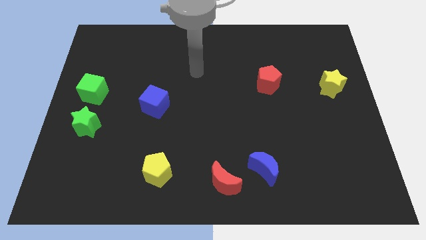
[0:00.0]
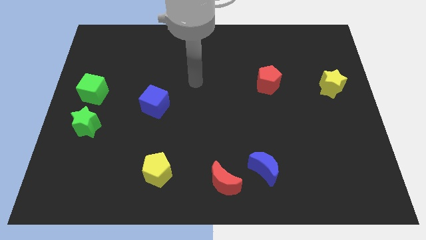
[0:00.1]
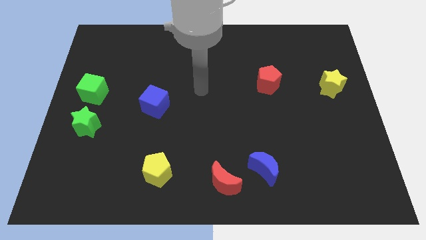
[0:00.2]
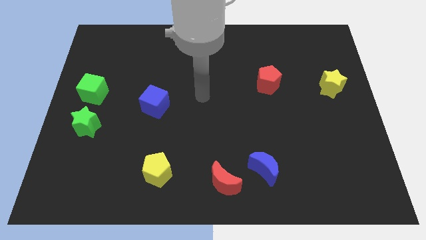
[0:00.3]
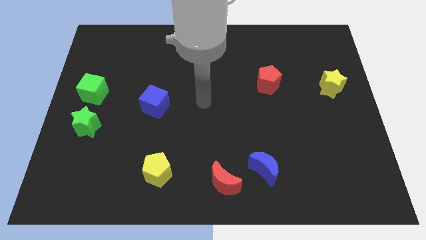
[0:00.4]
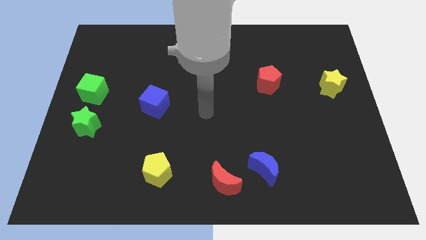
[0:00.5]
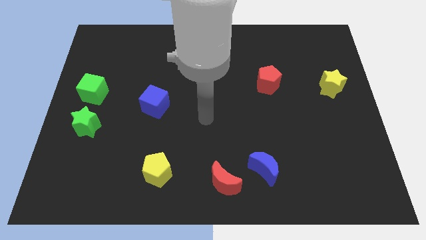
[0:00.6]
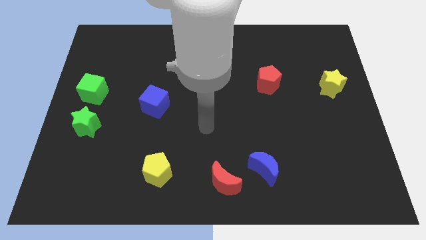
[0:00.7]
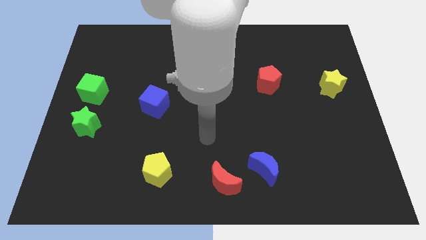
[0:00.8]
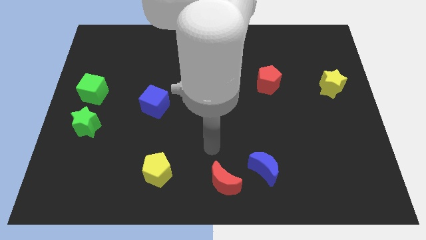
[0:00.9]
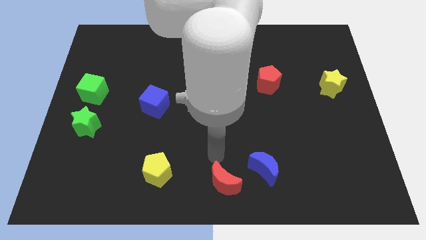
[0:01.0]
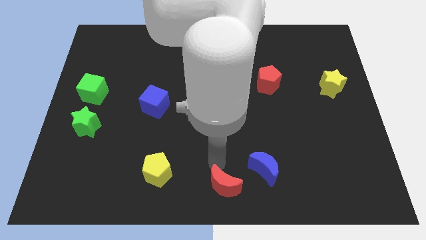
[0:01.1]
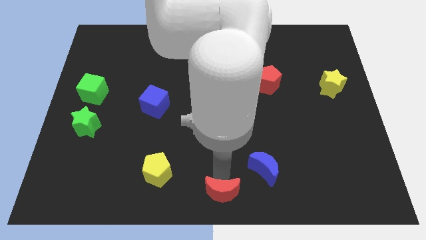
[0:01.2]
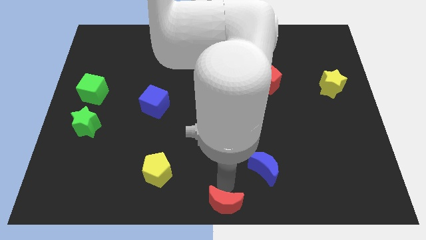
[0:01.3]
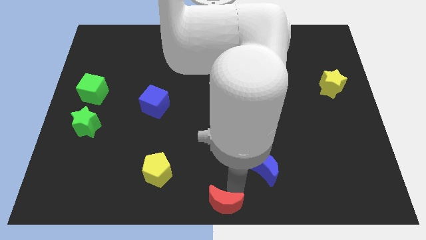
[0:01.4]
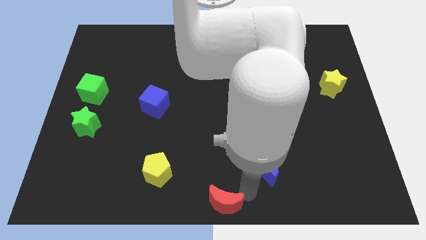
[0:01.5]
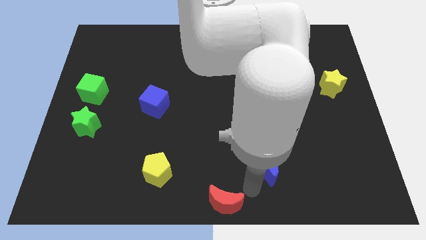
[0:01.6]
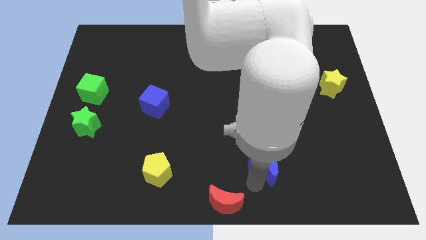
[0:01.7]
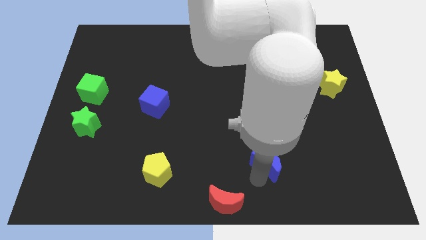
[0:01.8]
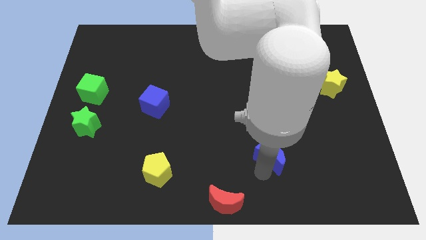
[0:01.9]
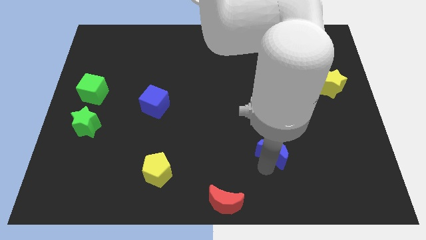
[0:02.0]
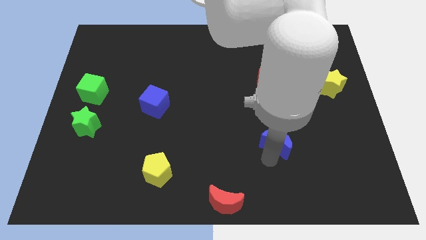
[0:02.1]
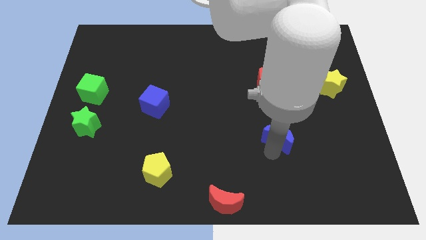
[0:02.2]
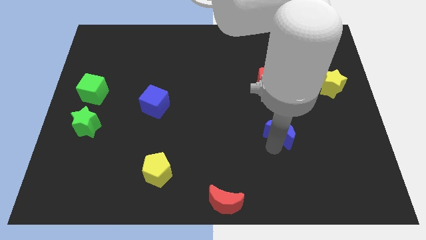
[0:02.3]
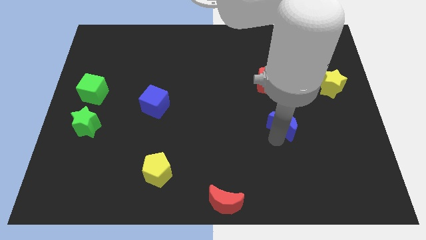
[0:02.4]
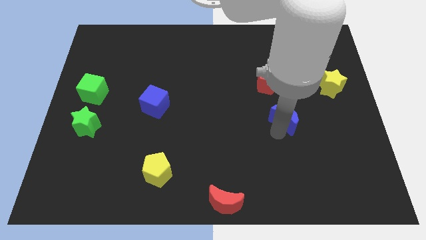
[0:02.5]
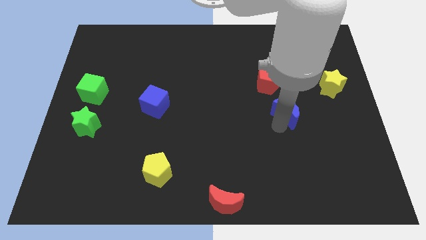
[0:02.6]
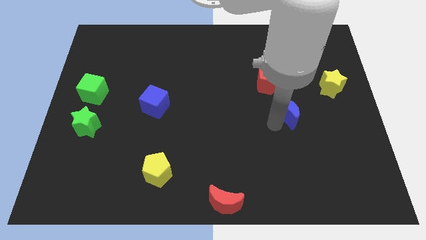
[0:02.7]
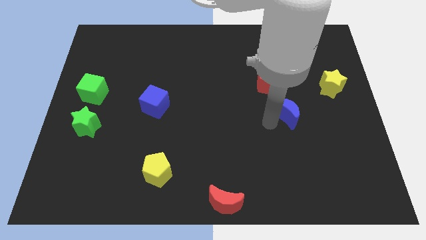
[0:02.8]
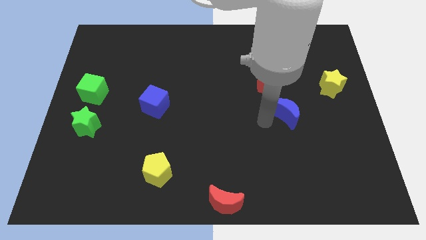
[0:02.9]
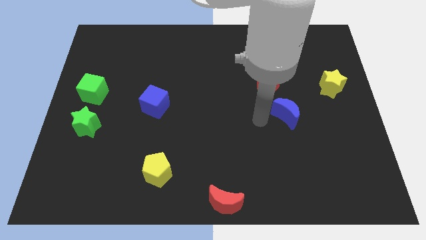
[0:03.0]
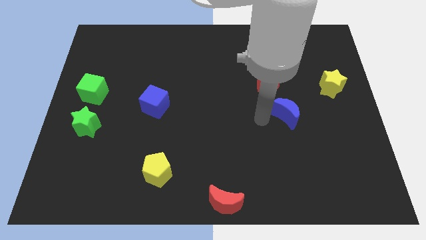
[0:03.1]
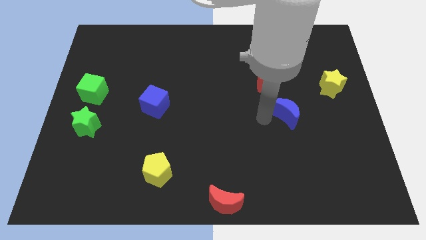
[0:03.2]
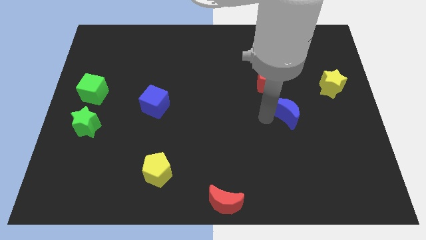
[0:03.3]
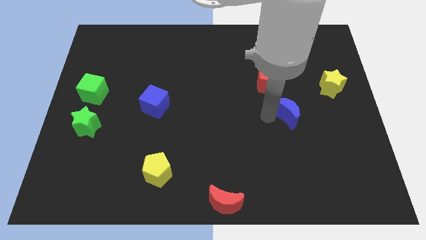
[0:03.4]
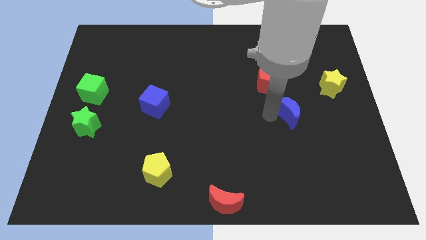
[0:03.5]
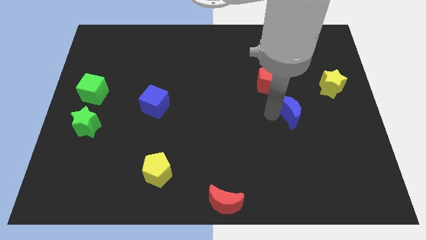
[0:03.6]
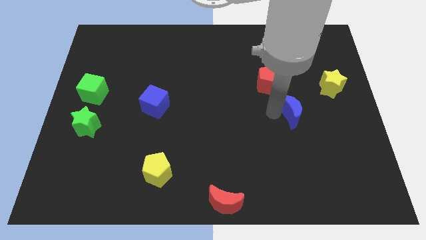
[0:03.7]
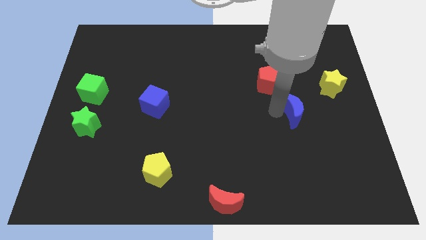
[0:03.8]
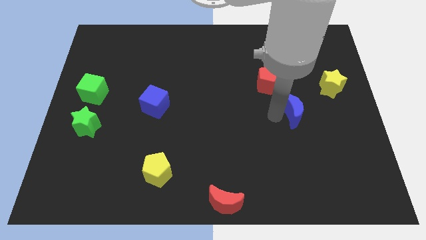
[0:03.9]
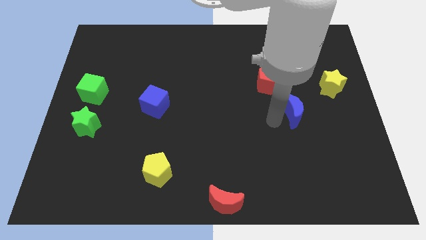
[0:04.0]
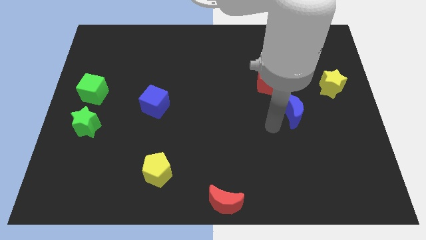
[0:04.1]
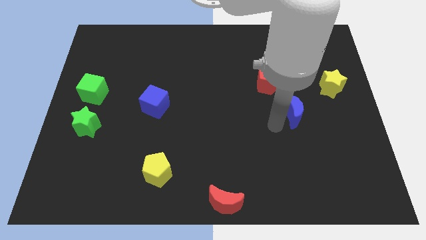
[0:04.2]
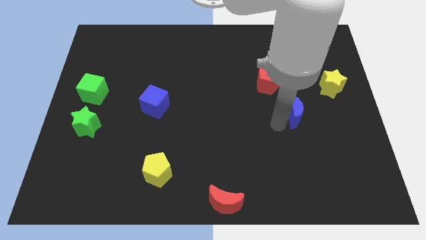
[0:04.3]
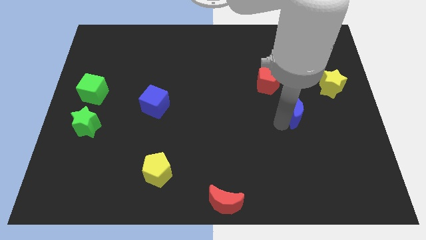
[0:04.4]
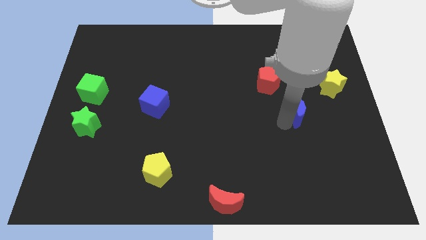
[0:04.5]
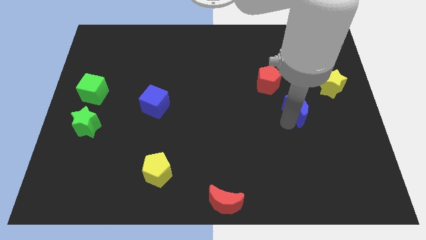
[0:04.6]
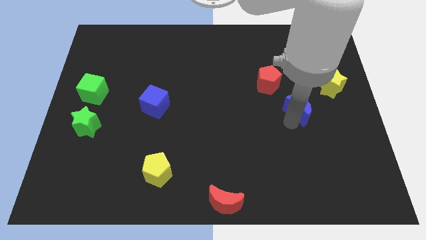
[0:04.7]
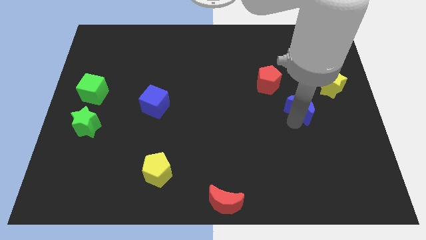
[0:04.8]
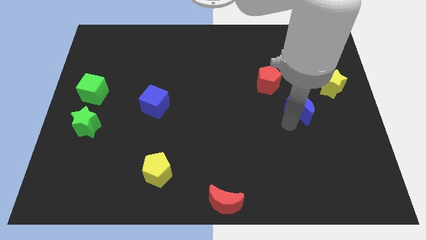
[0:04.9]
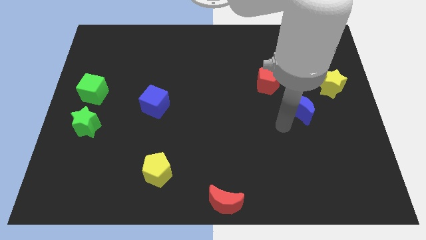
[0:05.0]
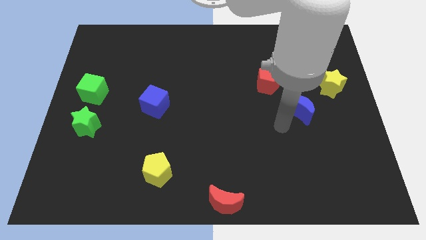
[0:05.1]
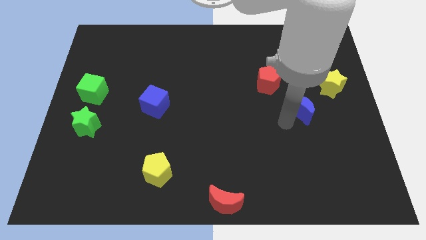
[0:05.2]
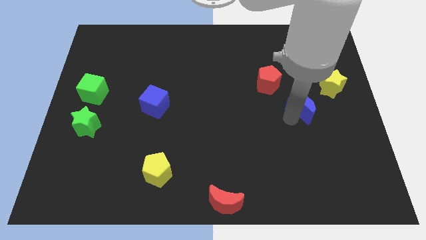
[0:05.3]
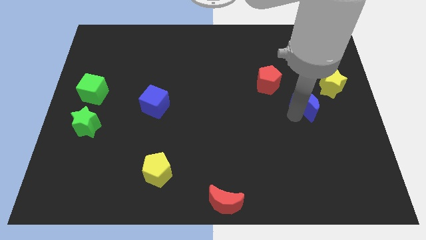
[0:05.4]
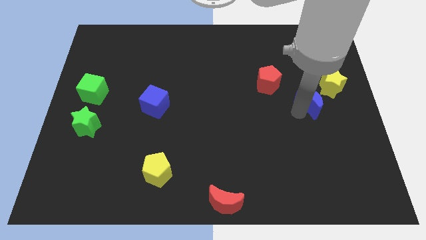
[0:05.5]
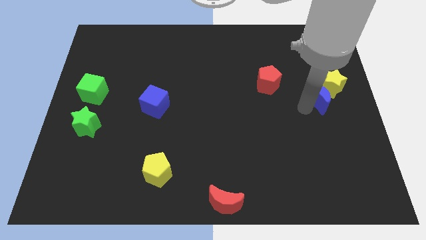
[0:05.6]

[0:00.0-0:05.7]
slide the blue moon towards the yellow star

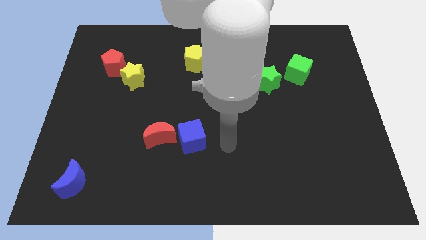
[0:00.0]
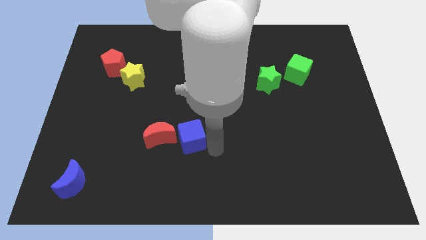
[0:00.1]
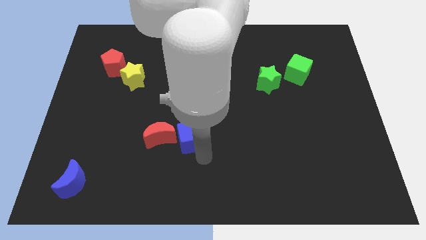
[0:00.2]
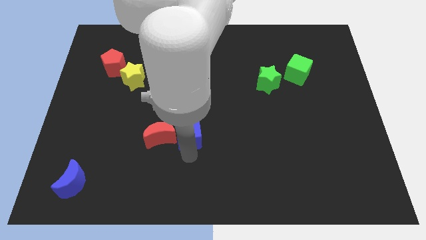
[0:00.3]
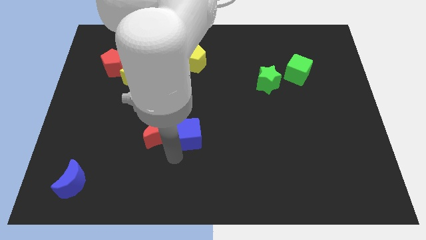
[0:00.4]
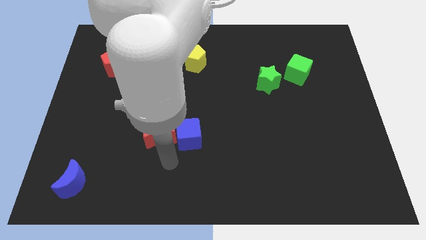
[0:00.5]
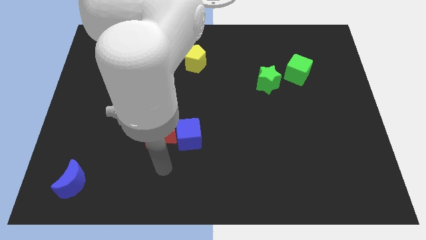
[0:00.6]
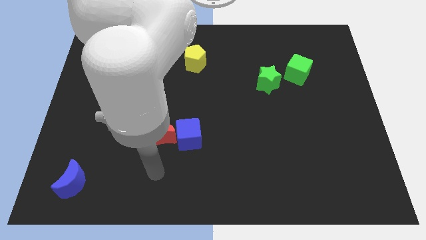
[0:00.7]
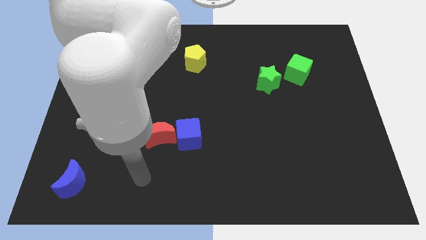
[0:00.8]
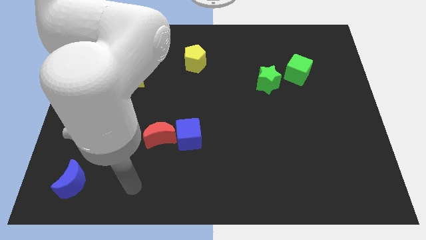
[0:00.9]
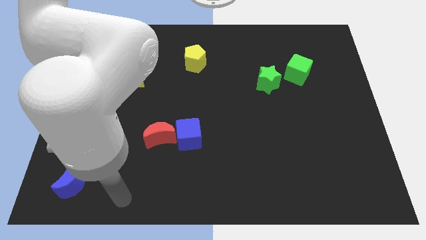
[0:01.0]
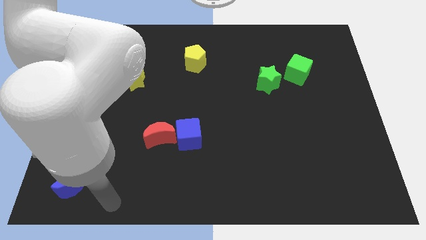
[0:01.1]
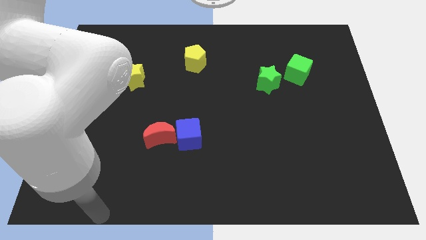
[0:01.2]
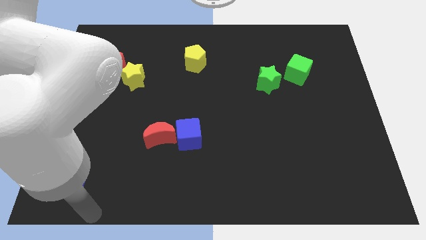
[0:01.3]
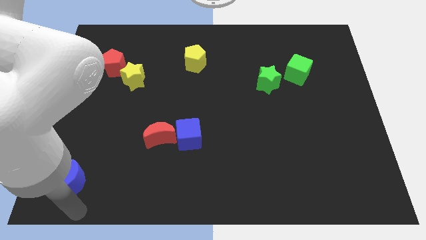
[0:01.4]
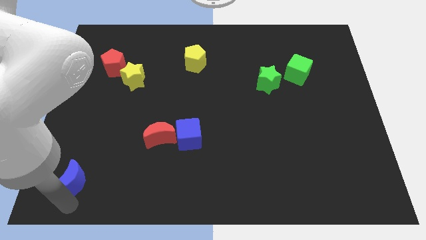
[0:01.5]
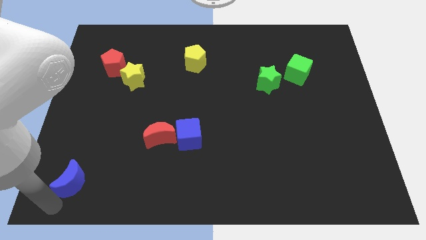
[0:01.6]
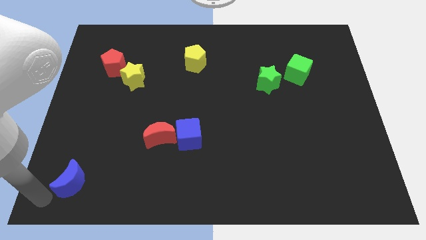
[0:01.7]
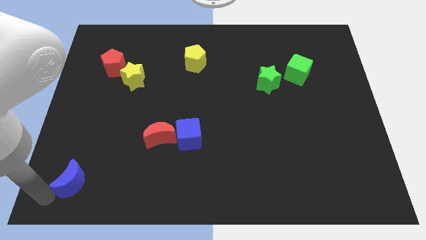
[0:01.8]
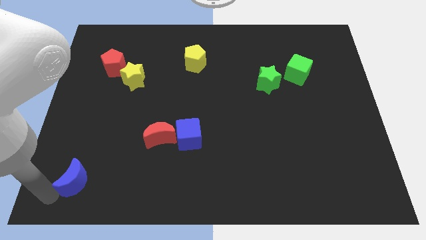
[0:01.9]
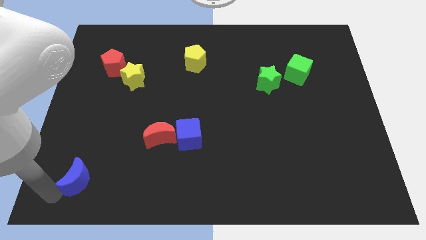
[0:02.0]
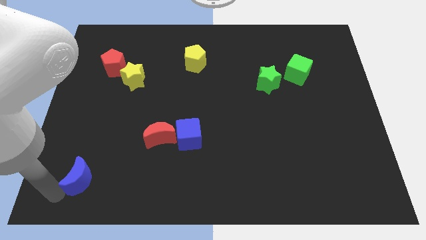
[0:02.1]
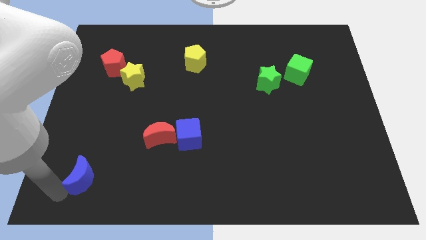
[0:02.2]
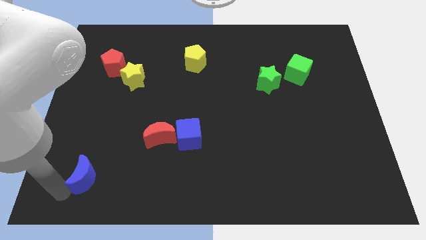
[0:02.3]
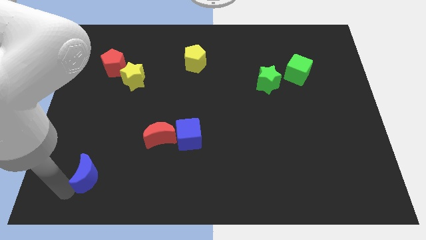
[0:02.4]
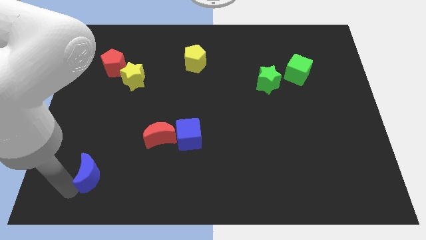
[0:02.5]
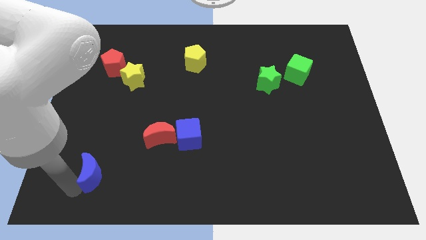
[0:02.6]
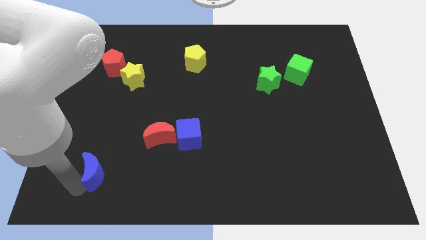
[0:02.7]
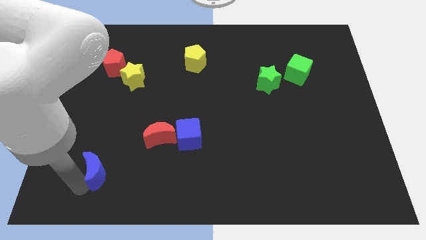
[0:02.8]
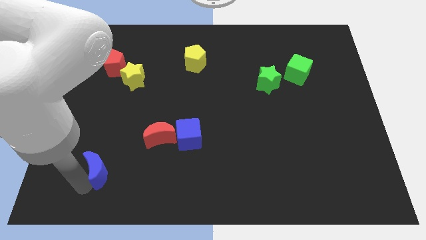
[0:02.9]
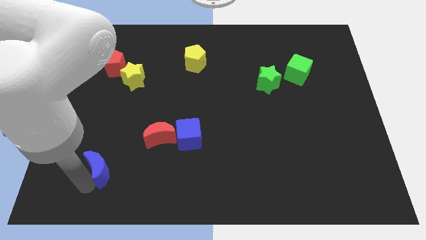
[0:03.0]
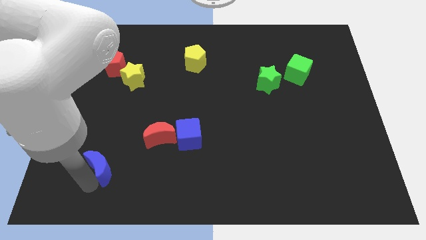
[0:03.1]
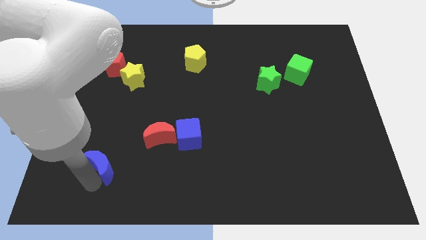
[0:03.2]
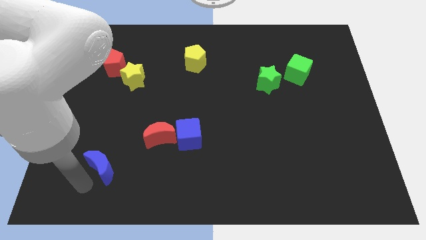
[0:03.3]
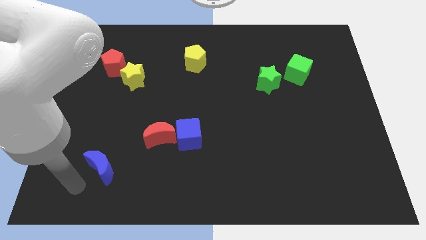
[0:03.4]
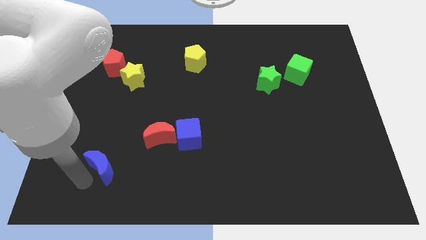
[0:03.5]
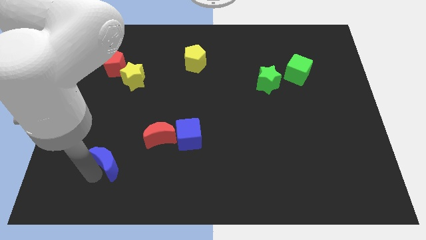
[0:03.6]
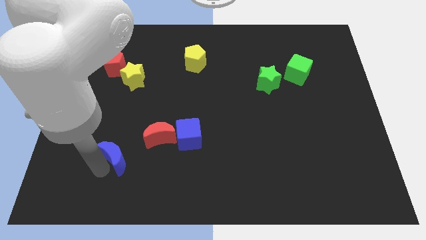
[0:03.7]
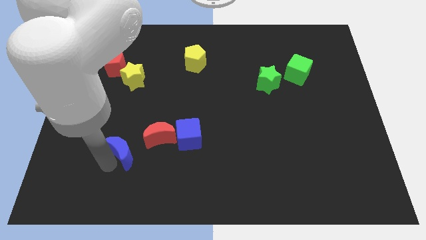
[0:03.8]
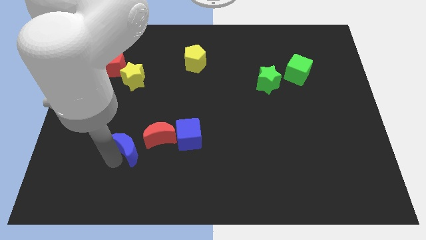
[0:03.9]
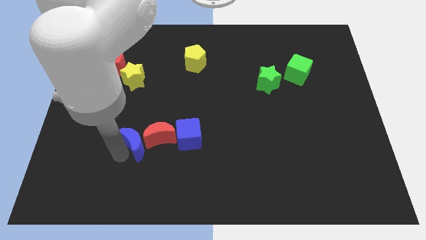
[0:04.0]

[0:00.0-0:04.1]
slide the blue moon next to the red moon
